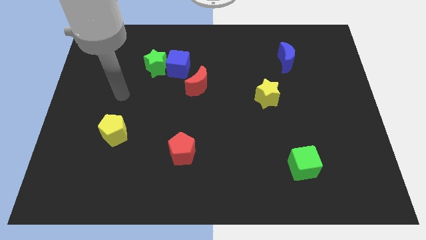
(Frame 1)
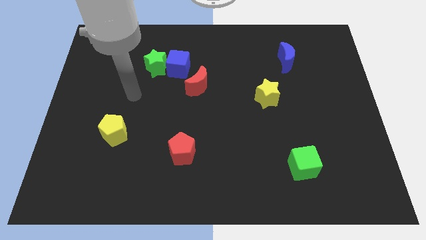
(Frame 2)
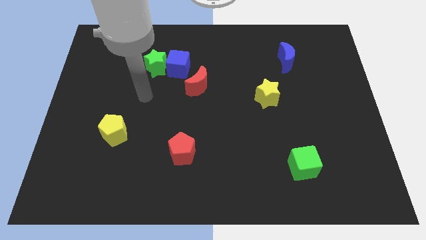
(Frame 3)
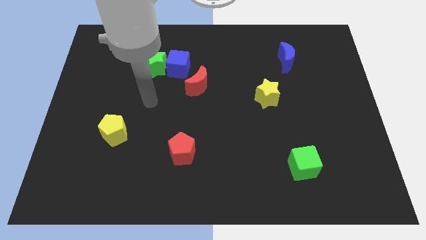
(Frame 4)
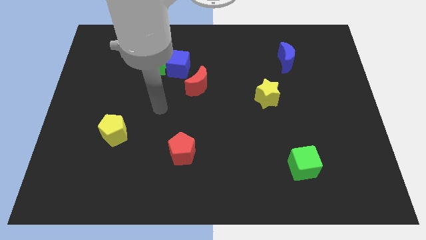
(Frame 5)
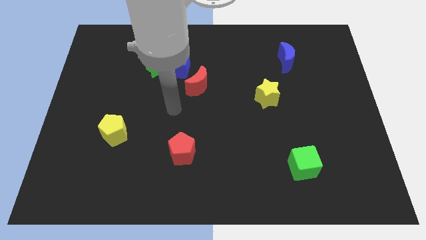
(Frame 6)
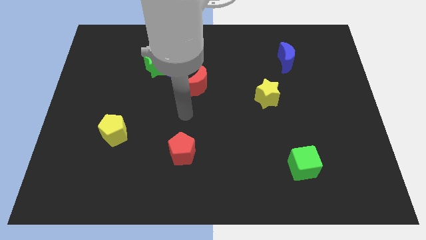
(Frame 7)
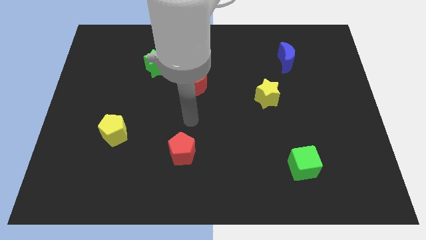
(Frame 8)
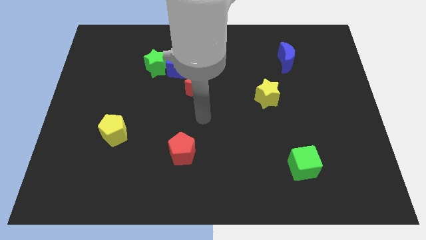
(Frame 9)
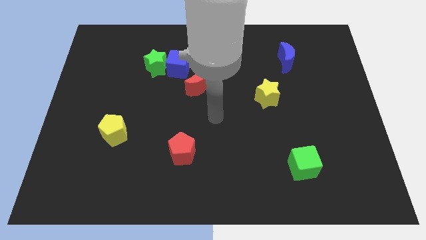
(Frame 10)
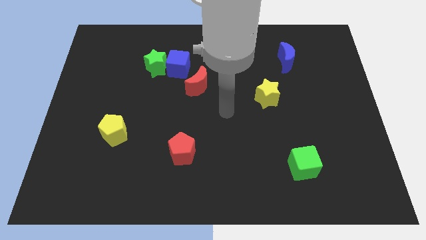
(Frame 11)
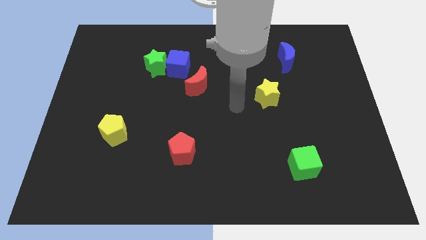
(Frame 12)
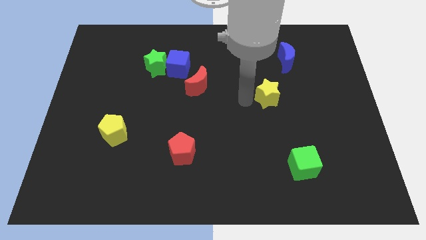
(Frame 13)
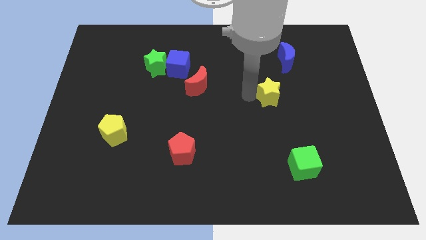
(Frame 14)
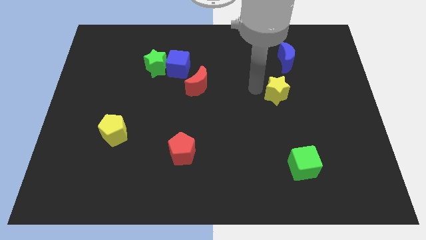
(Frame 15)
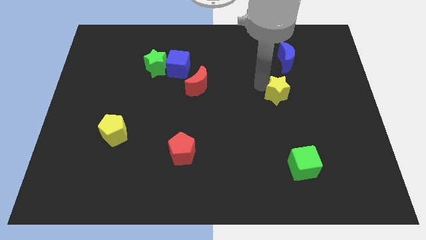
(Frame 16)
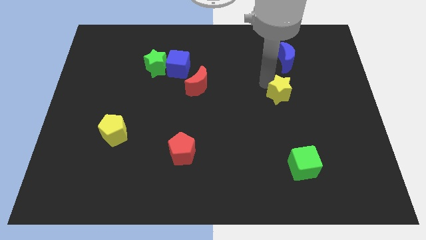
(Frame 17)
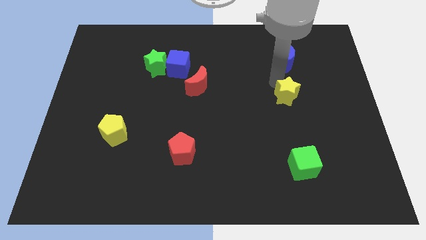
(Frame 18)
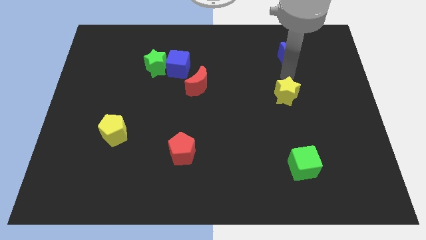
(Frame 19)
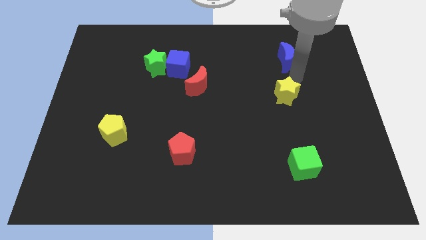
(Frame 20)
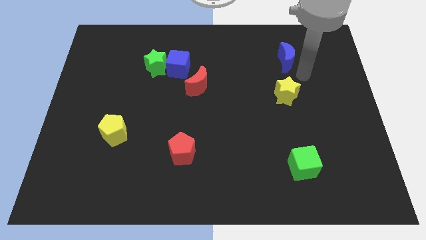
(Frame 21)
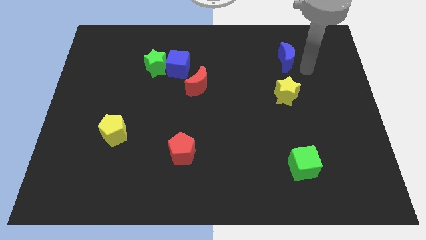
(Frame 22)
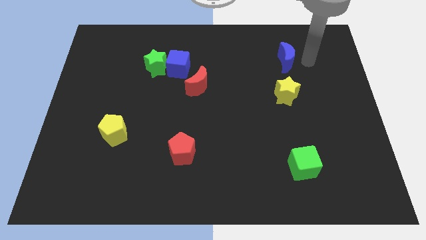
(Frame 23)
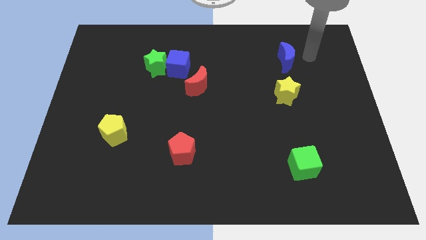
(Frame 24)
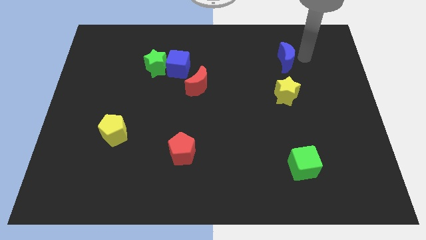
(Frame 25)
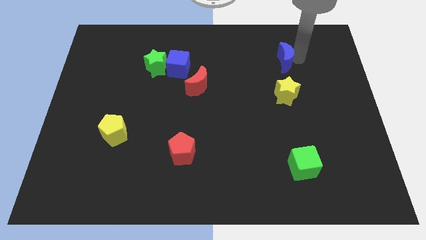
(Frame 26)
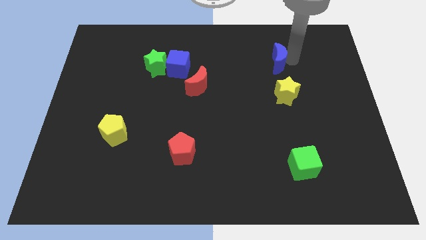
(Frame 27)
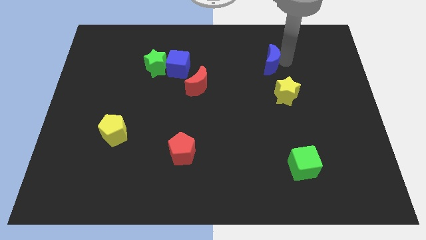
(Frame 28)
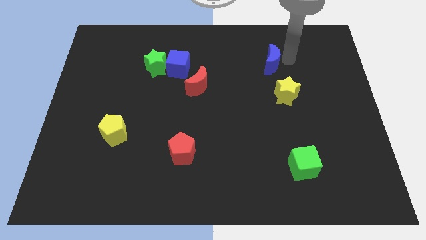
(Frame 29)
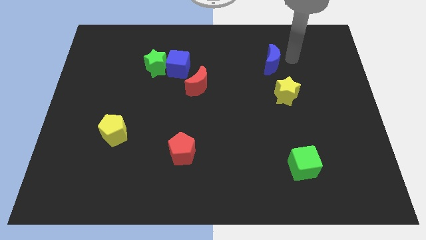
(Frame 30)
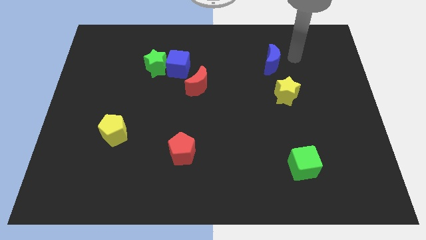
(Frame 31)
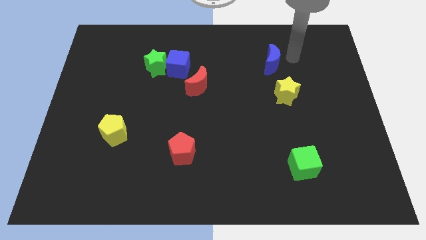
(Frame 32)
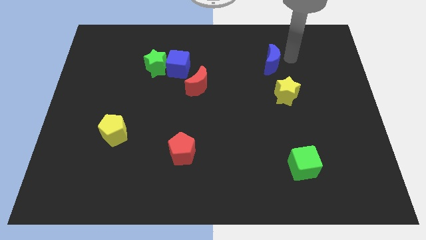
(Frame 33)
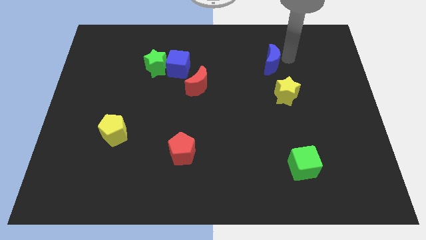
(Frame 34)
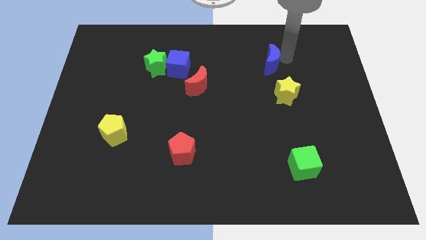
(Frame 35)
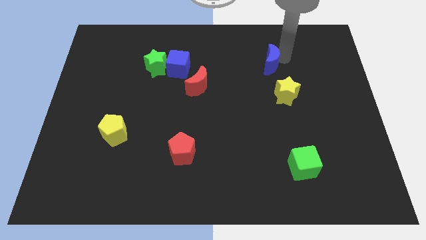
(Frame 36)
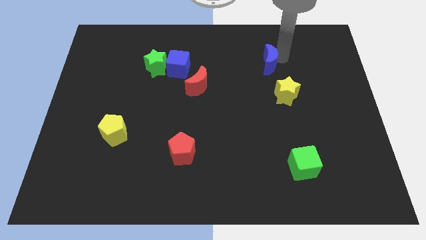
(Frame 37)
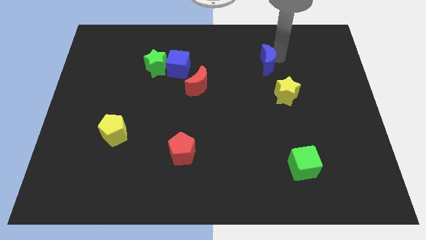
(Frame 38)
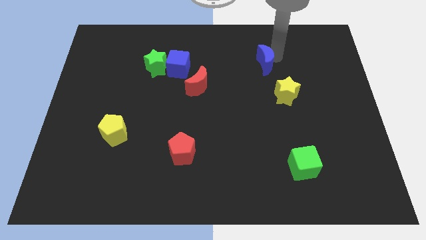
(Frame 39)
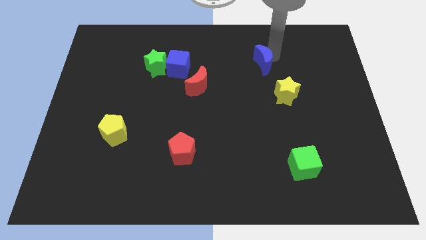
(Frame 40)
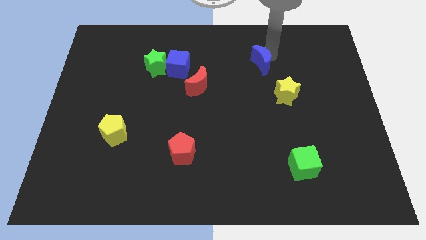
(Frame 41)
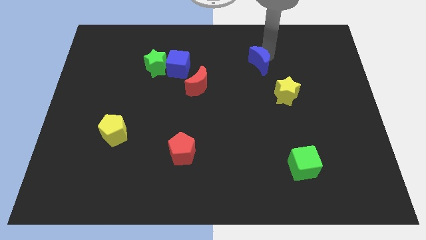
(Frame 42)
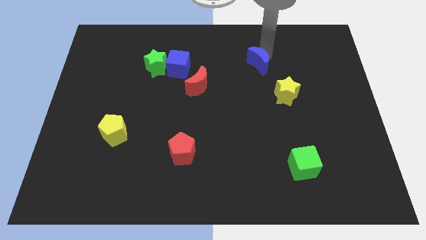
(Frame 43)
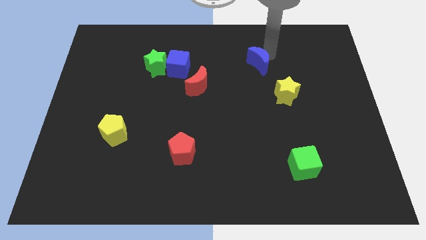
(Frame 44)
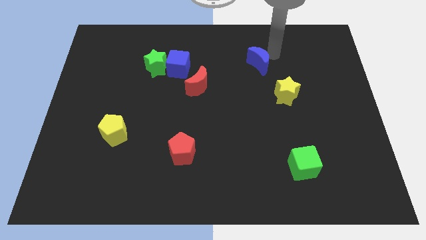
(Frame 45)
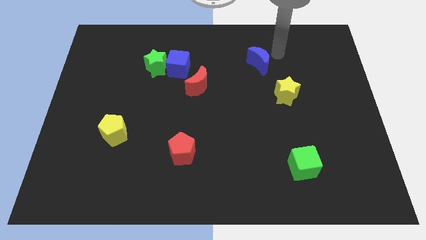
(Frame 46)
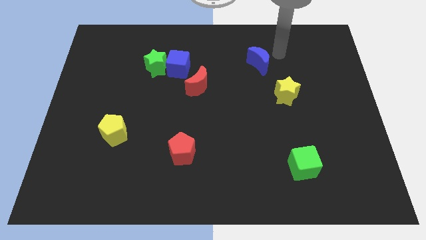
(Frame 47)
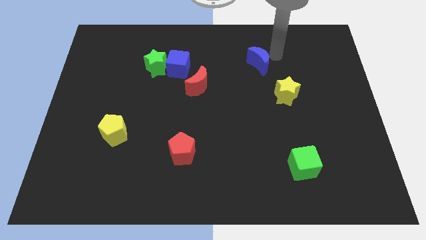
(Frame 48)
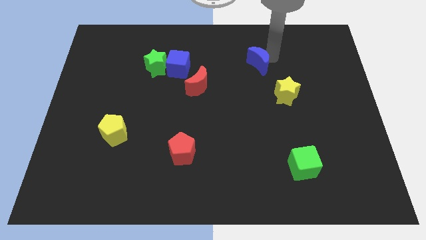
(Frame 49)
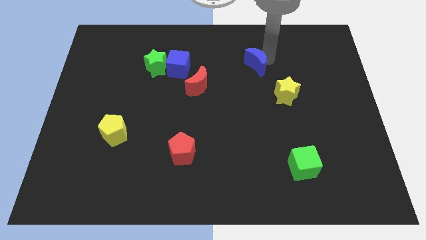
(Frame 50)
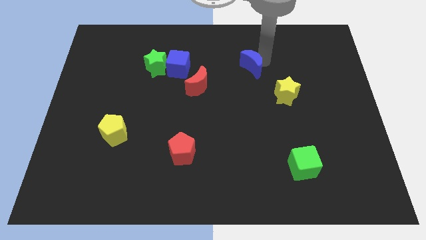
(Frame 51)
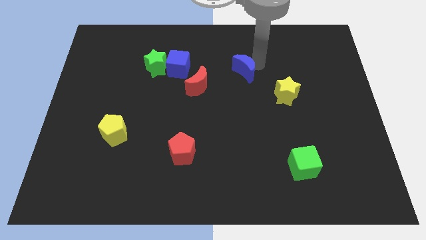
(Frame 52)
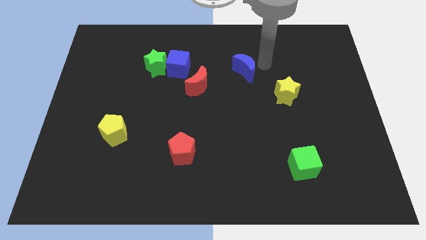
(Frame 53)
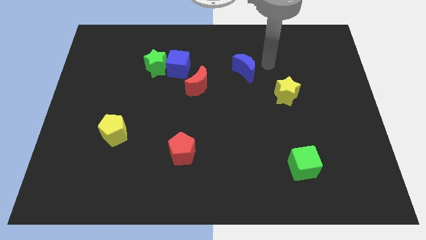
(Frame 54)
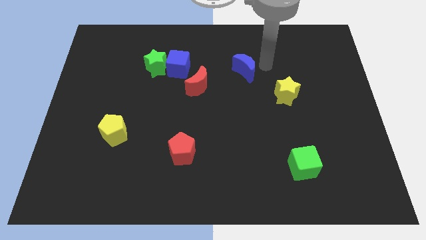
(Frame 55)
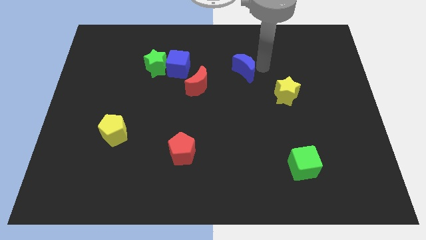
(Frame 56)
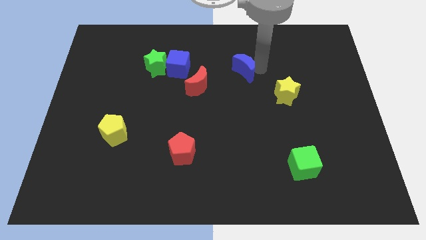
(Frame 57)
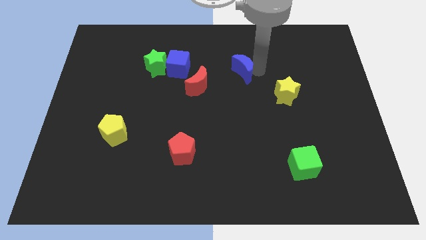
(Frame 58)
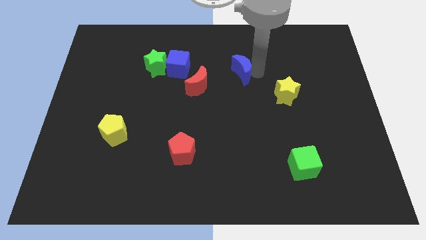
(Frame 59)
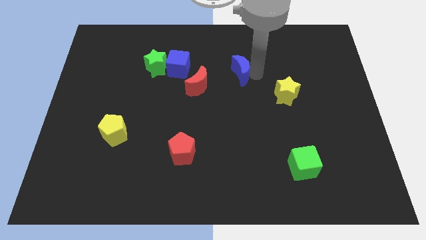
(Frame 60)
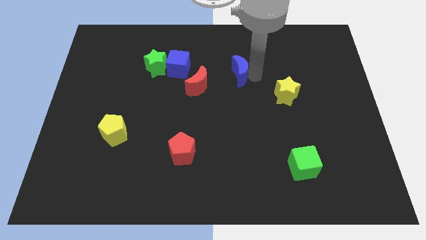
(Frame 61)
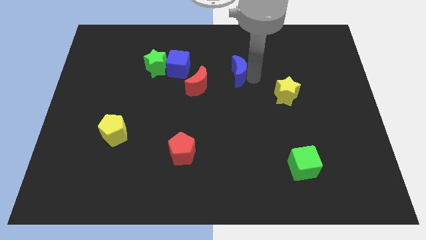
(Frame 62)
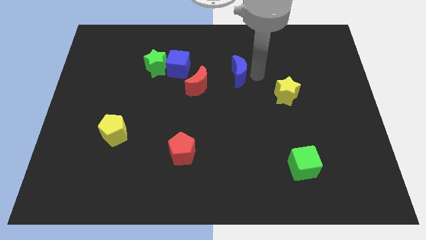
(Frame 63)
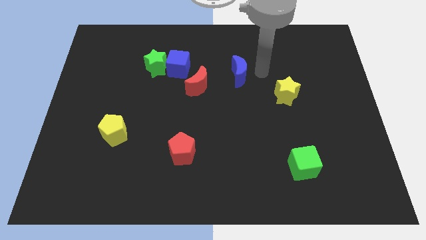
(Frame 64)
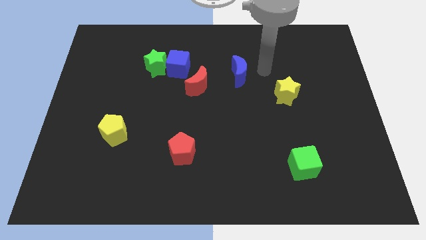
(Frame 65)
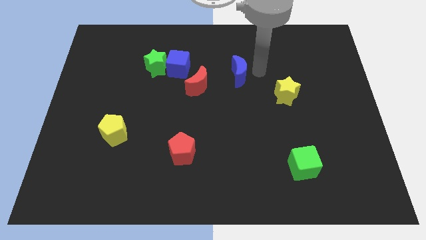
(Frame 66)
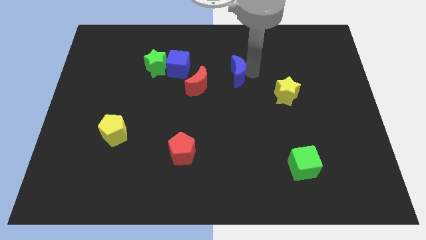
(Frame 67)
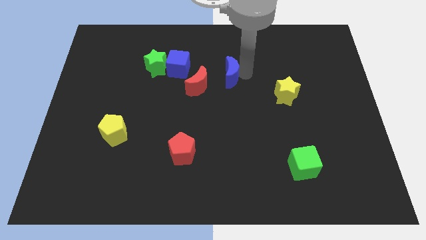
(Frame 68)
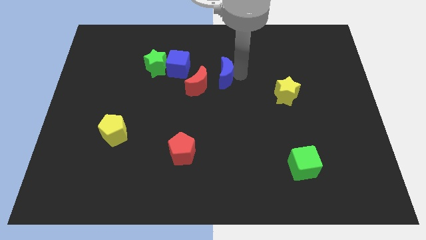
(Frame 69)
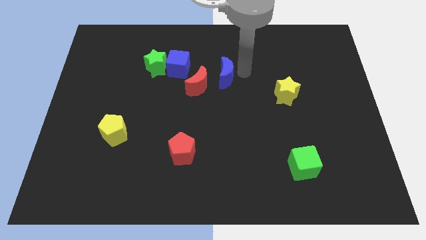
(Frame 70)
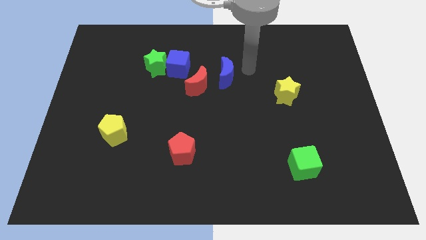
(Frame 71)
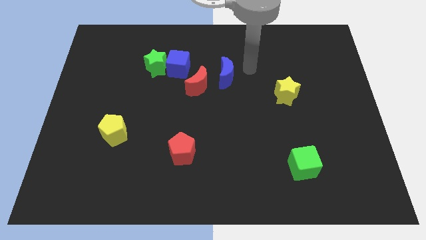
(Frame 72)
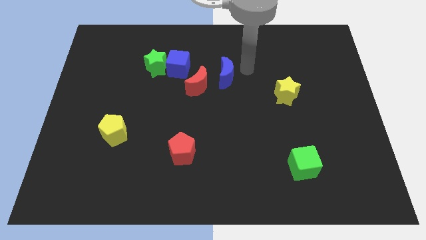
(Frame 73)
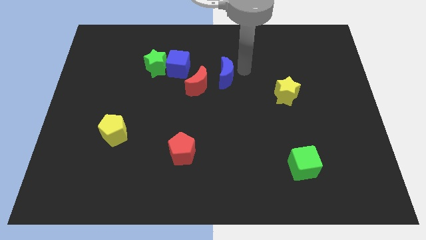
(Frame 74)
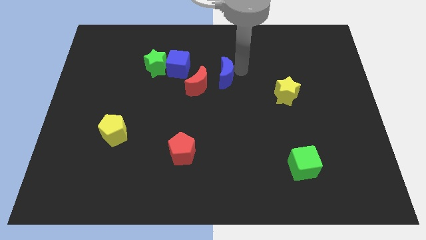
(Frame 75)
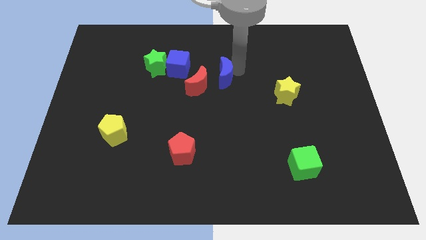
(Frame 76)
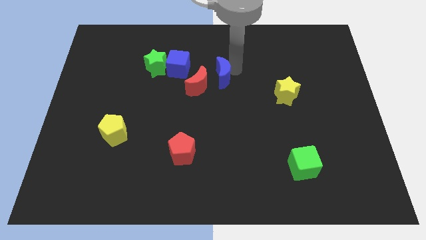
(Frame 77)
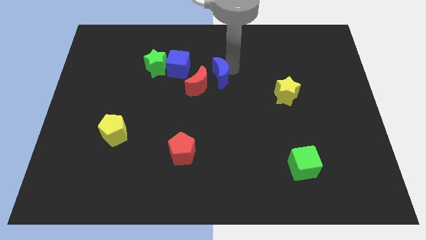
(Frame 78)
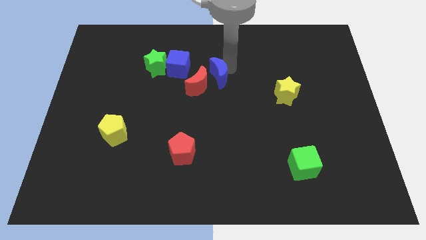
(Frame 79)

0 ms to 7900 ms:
move the blue moon to the red moon
